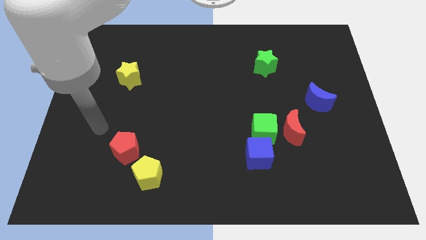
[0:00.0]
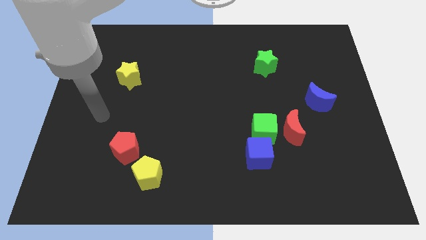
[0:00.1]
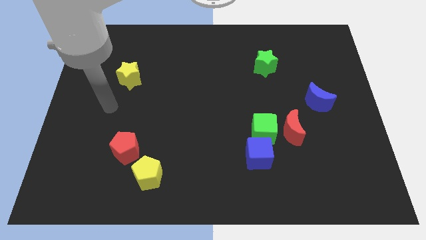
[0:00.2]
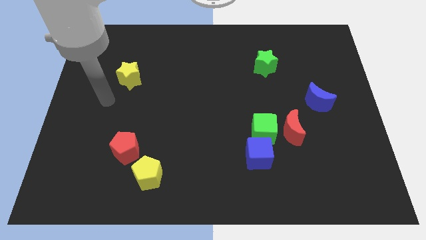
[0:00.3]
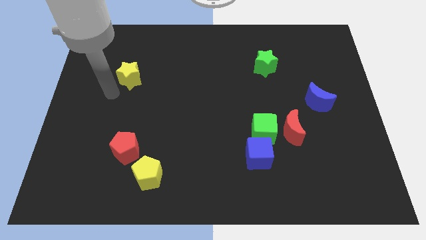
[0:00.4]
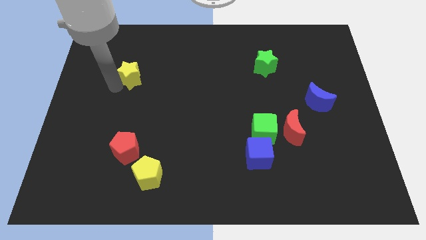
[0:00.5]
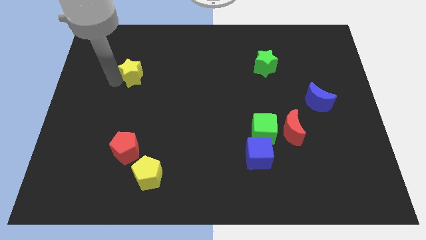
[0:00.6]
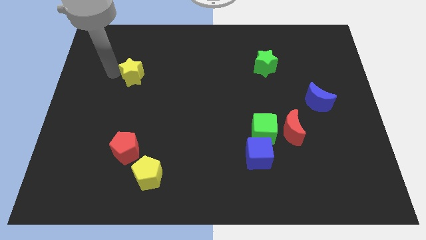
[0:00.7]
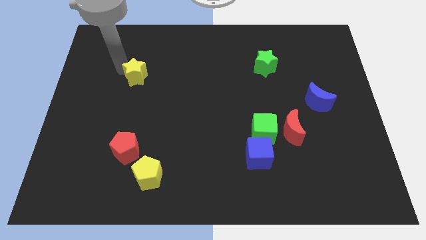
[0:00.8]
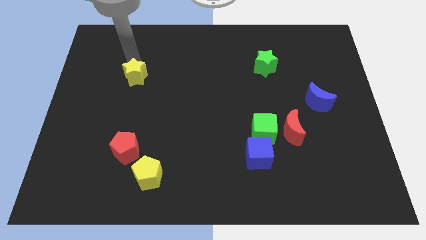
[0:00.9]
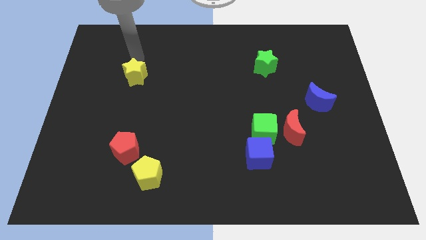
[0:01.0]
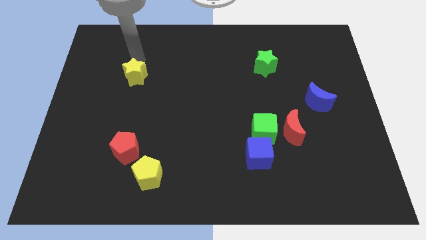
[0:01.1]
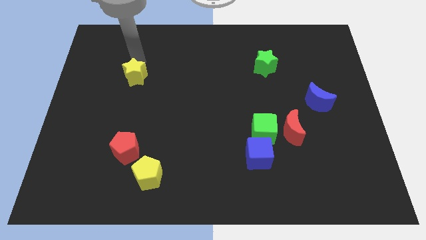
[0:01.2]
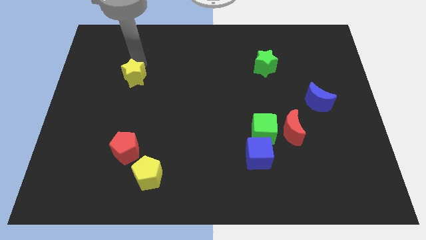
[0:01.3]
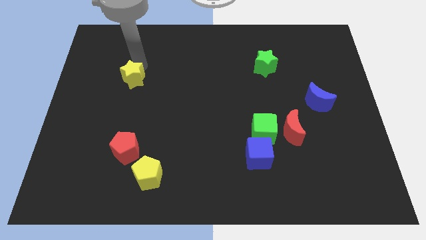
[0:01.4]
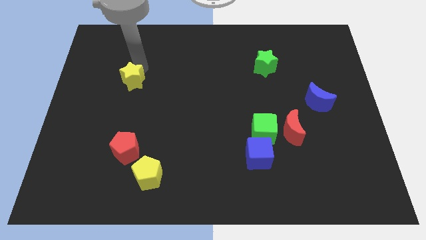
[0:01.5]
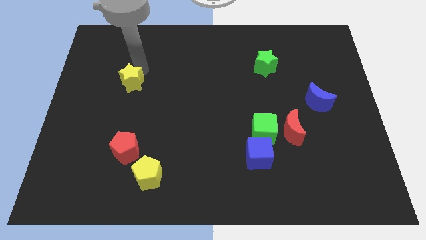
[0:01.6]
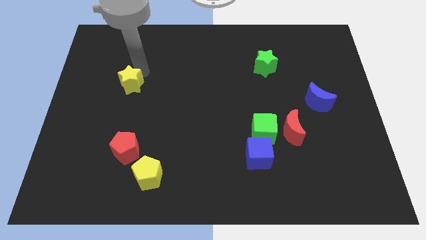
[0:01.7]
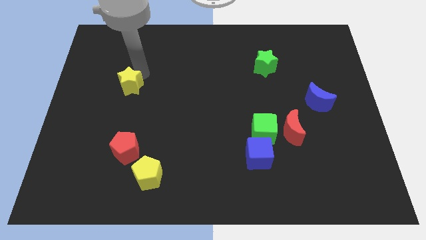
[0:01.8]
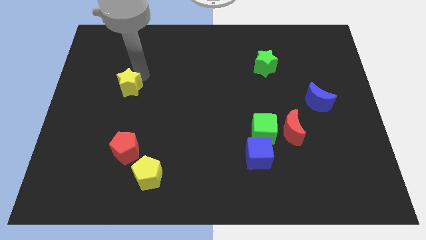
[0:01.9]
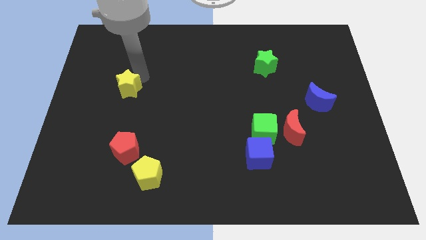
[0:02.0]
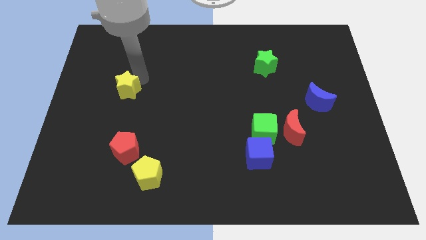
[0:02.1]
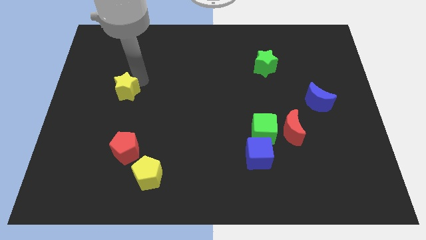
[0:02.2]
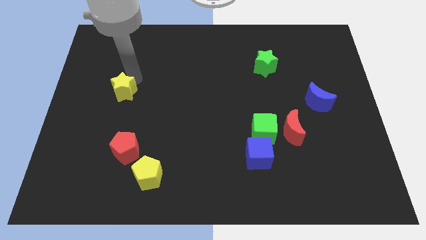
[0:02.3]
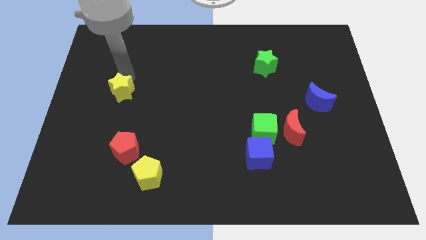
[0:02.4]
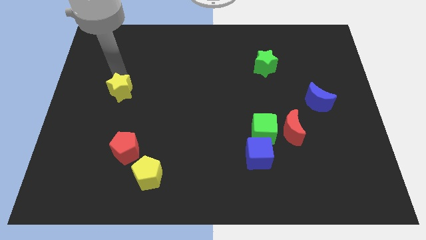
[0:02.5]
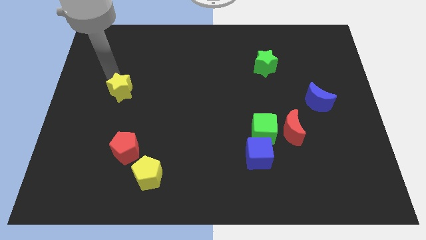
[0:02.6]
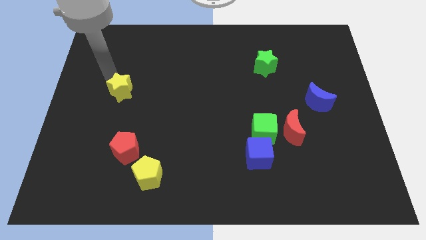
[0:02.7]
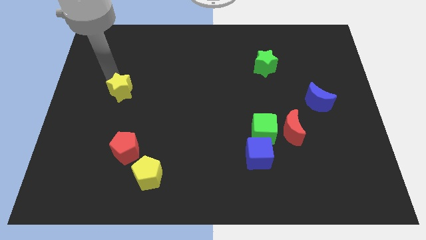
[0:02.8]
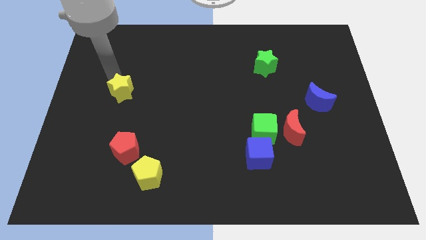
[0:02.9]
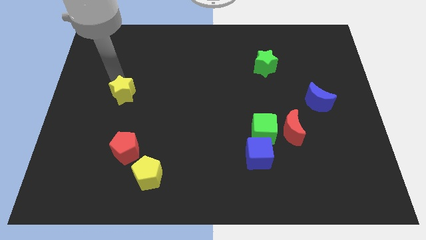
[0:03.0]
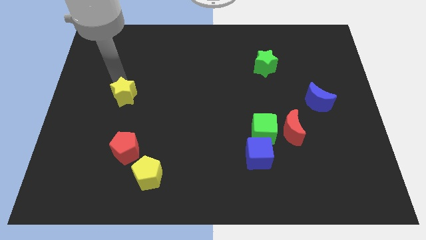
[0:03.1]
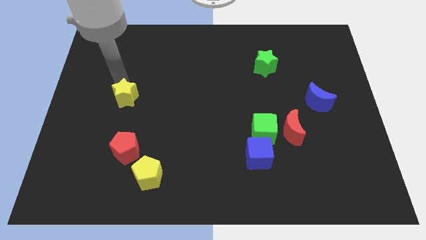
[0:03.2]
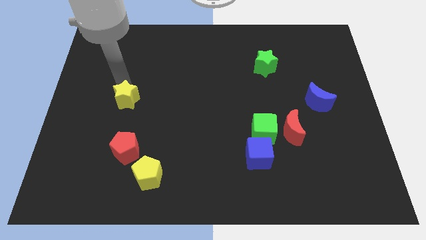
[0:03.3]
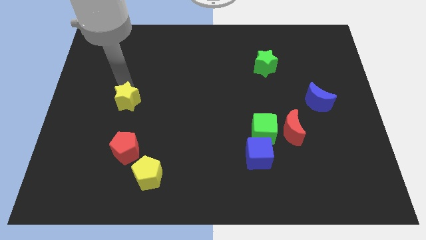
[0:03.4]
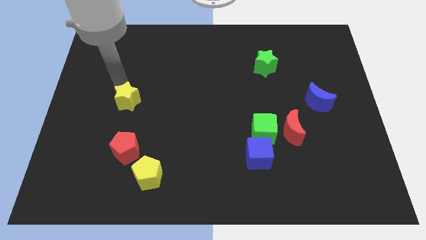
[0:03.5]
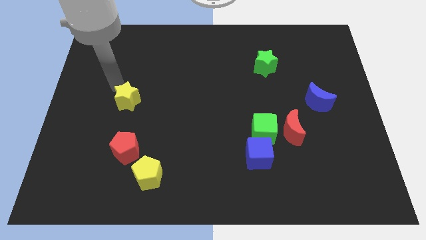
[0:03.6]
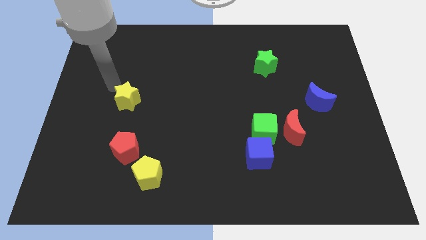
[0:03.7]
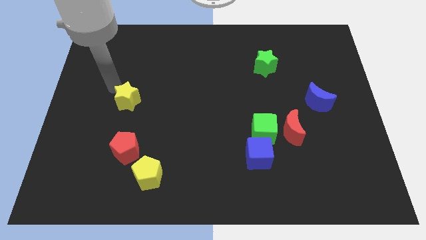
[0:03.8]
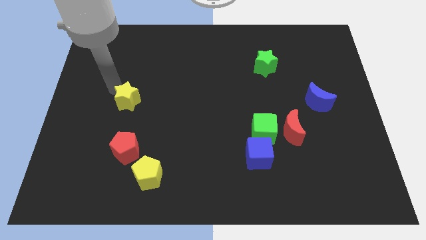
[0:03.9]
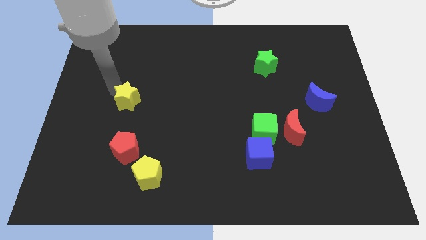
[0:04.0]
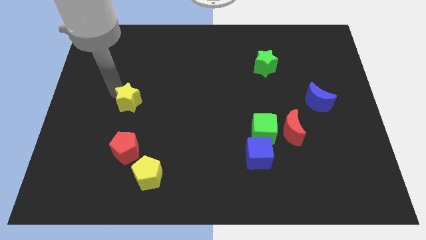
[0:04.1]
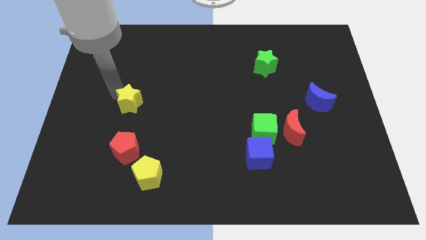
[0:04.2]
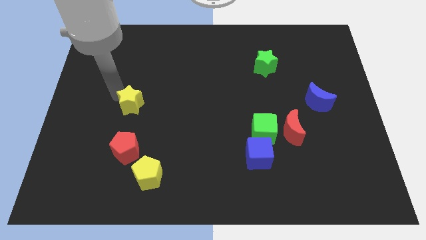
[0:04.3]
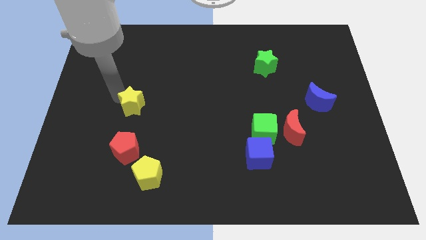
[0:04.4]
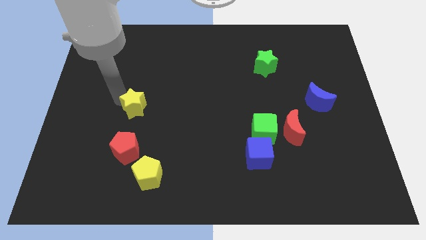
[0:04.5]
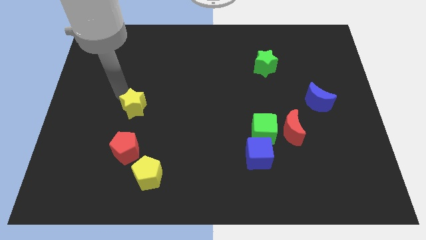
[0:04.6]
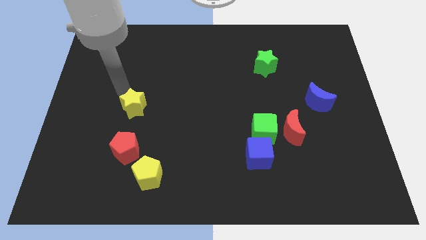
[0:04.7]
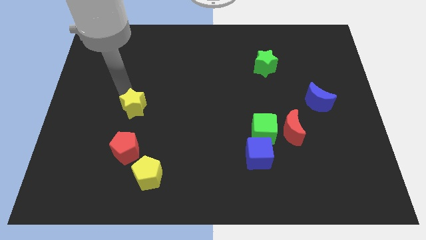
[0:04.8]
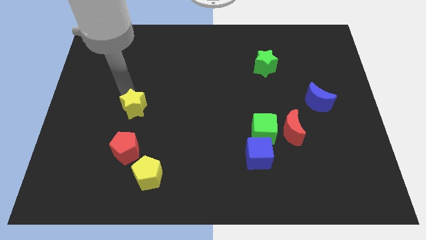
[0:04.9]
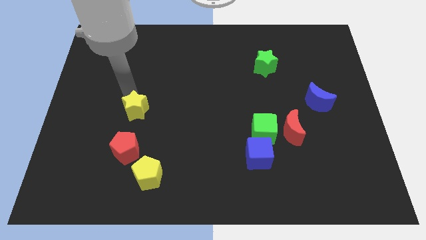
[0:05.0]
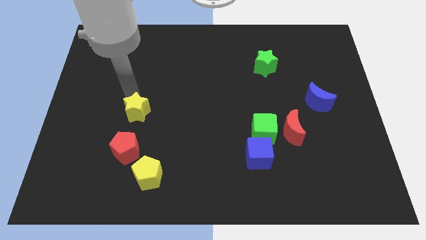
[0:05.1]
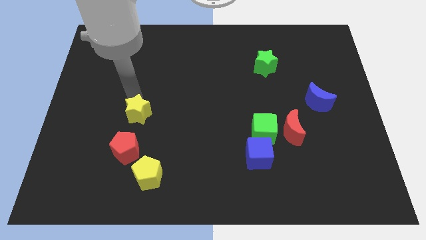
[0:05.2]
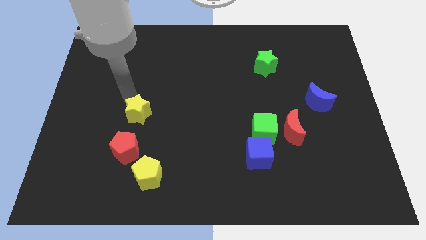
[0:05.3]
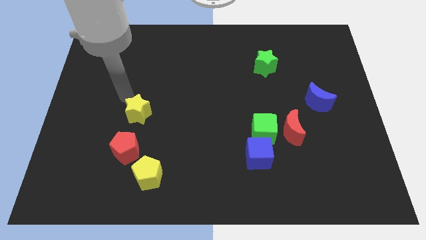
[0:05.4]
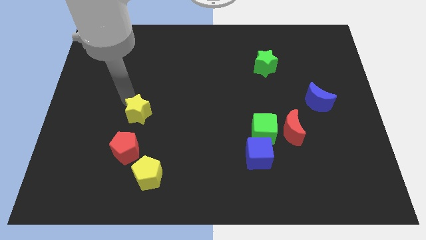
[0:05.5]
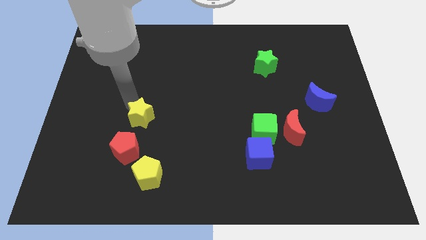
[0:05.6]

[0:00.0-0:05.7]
slide the yellow star to the top right side of the red pentagon

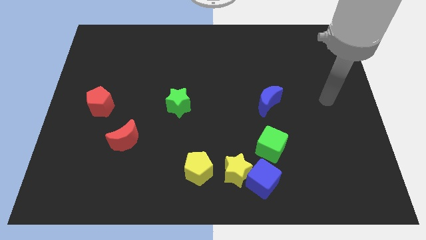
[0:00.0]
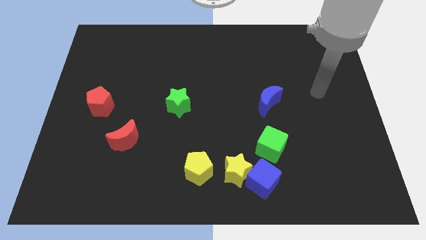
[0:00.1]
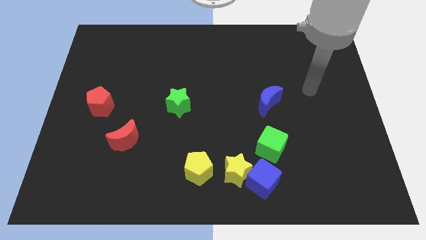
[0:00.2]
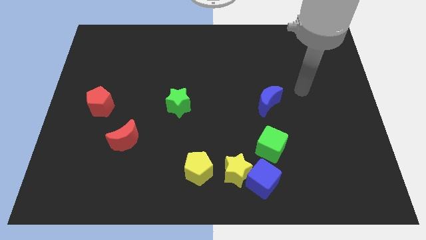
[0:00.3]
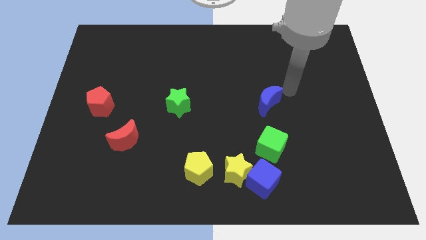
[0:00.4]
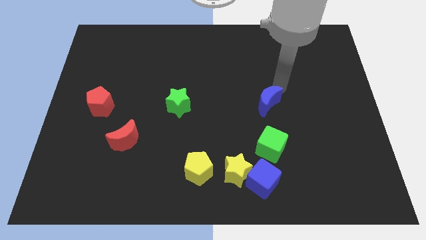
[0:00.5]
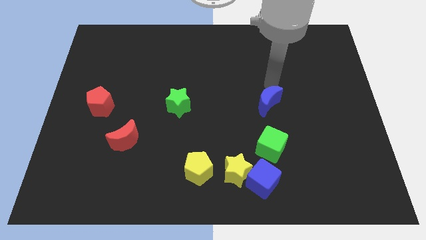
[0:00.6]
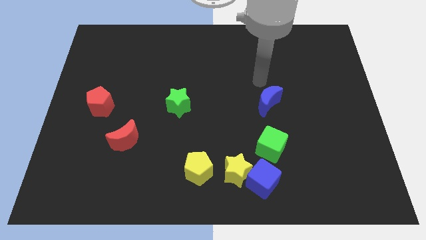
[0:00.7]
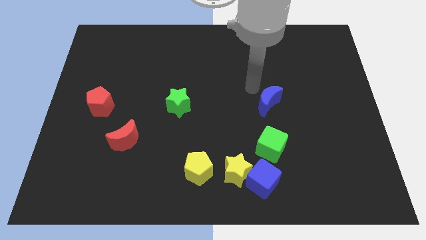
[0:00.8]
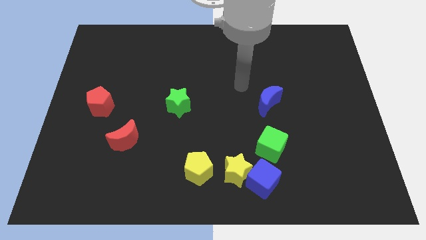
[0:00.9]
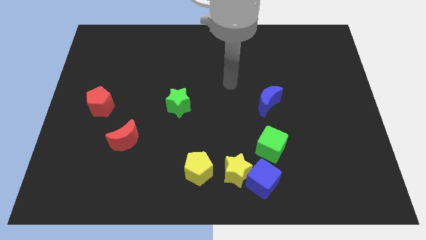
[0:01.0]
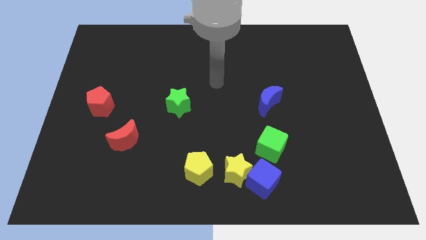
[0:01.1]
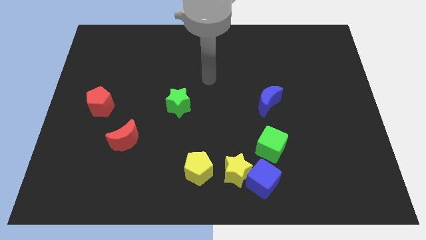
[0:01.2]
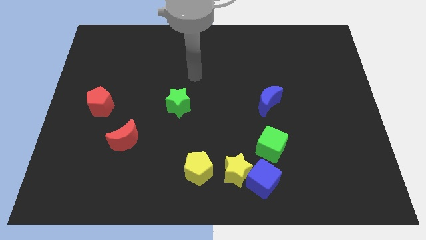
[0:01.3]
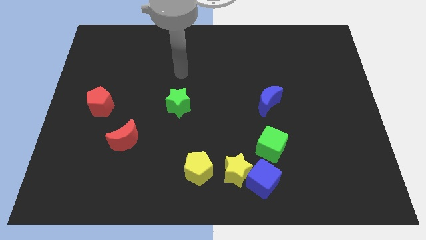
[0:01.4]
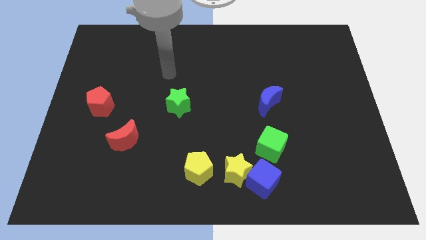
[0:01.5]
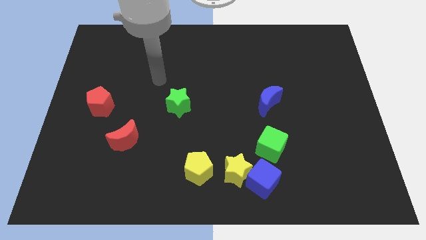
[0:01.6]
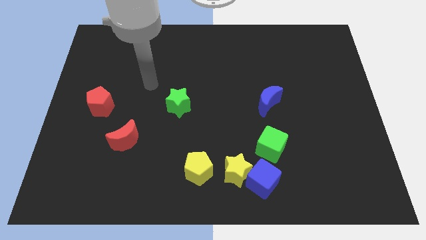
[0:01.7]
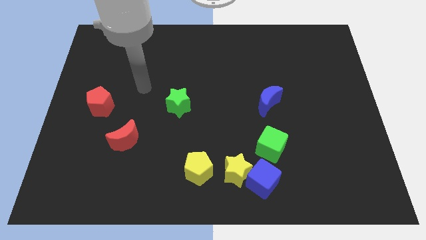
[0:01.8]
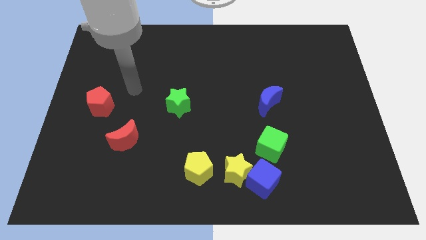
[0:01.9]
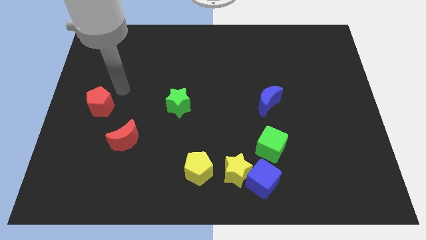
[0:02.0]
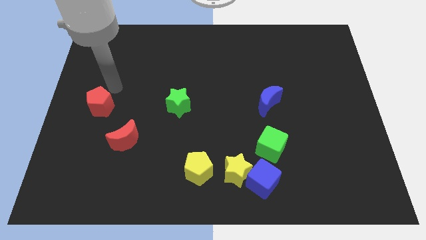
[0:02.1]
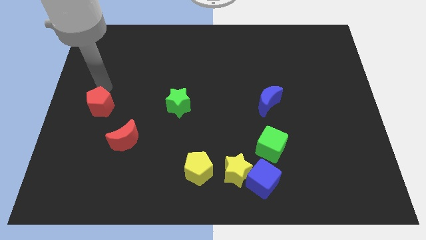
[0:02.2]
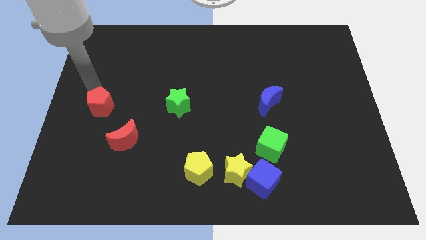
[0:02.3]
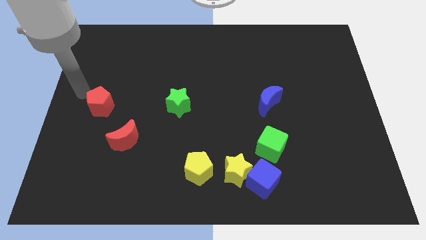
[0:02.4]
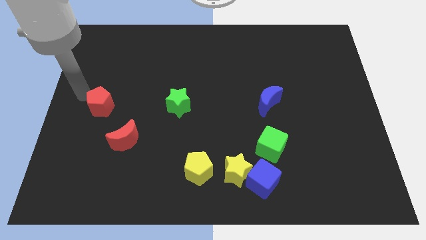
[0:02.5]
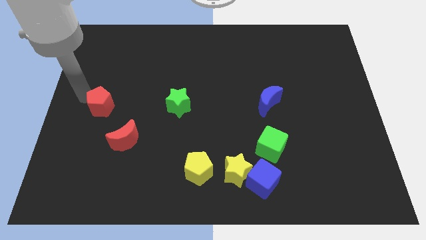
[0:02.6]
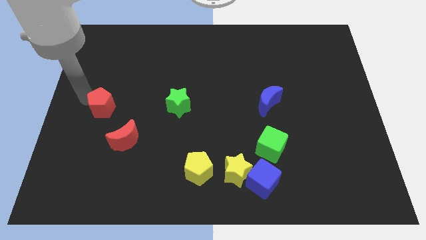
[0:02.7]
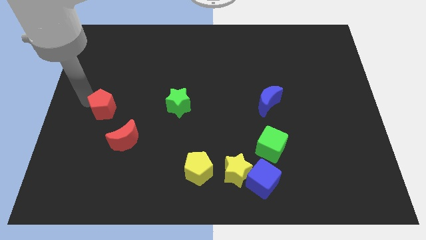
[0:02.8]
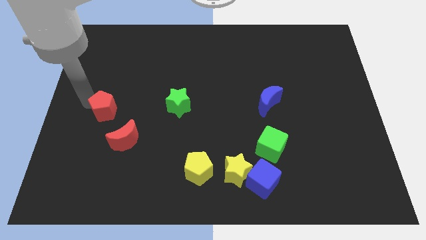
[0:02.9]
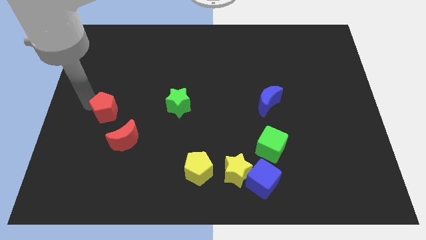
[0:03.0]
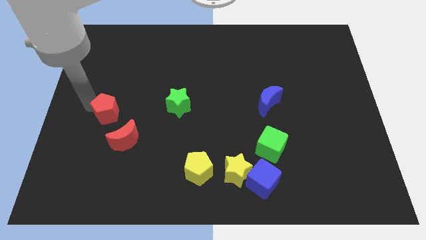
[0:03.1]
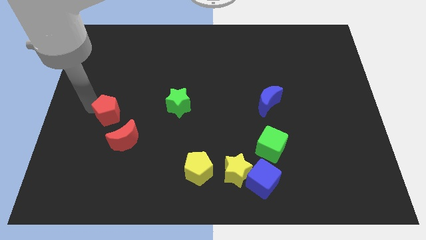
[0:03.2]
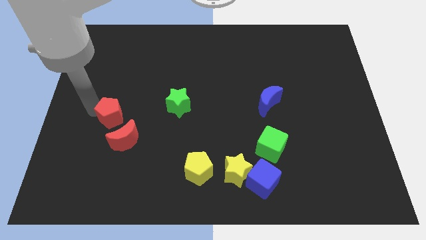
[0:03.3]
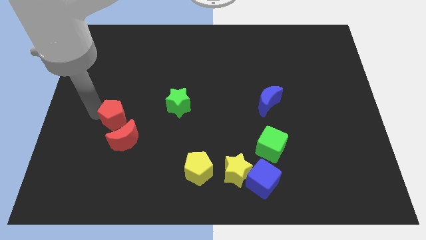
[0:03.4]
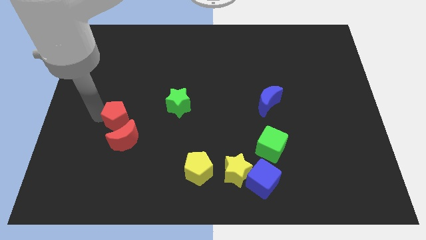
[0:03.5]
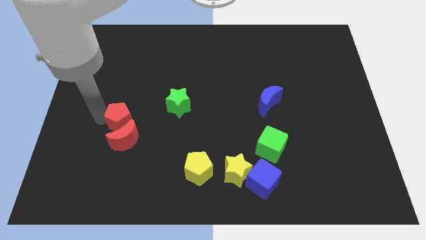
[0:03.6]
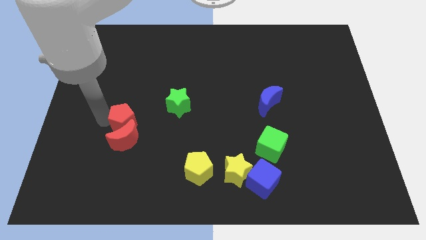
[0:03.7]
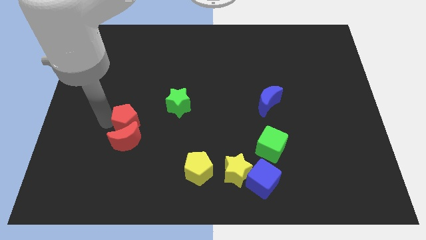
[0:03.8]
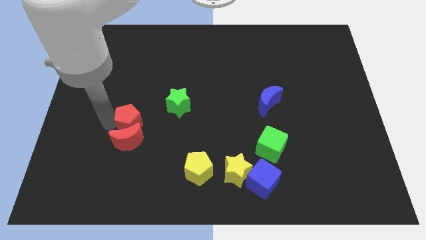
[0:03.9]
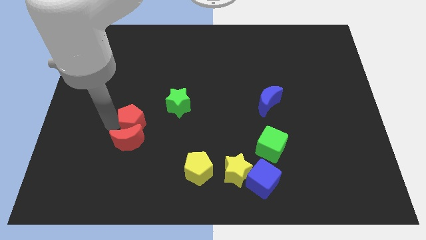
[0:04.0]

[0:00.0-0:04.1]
move the red pentagon to the bottom left side of the green star
